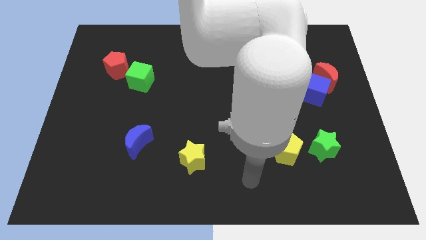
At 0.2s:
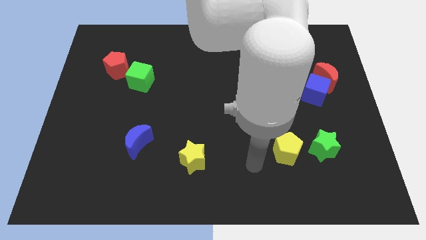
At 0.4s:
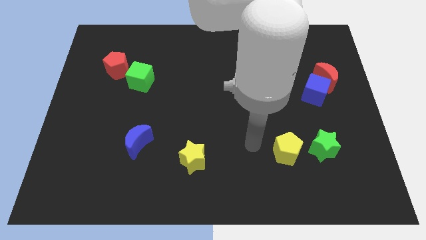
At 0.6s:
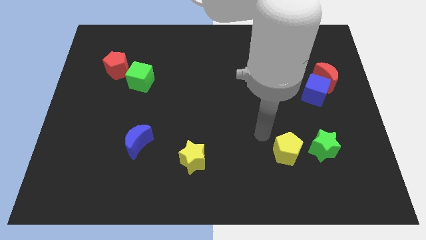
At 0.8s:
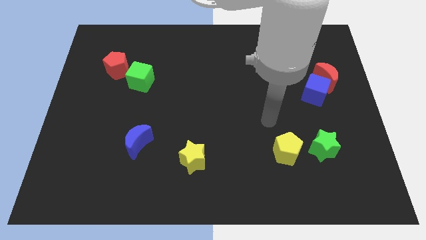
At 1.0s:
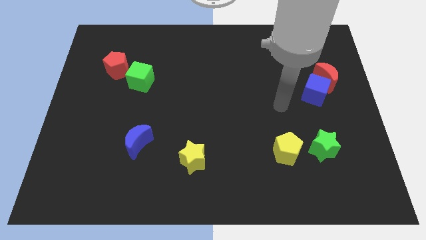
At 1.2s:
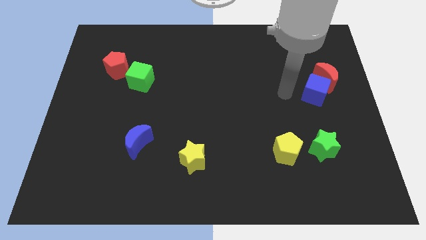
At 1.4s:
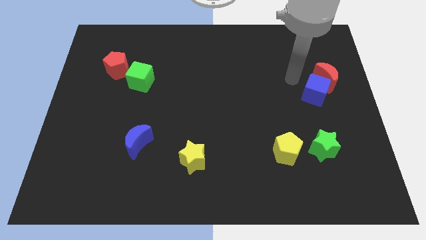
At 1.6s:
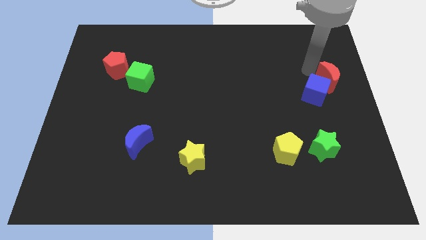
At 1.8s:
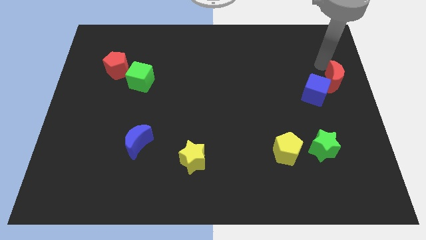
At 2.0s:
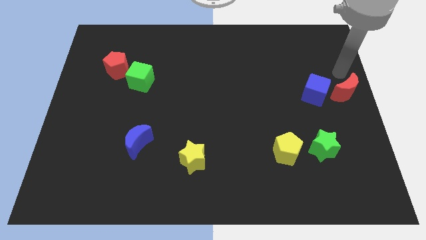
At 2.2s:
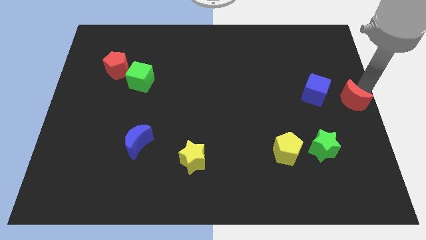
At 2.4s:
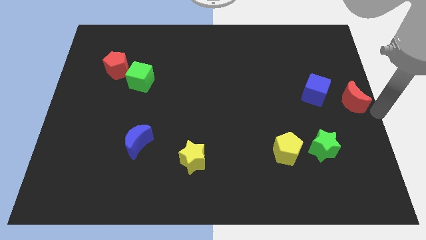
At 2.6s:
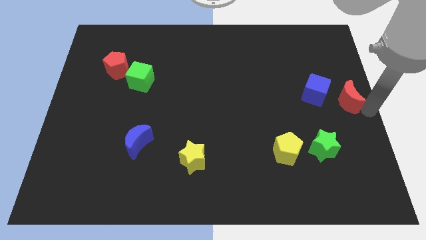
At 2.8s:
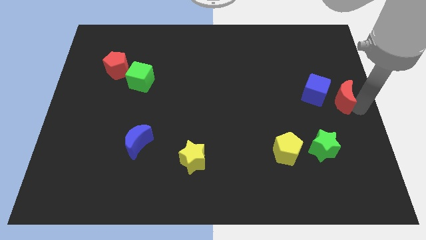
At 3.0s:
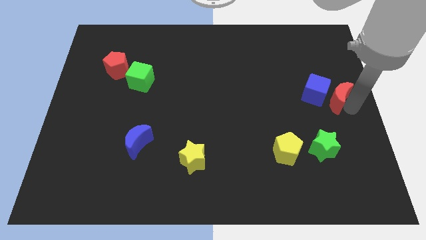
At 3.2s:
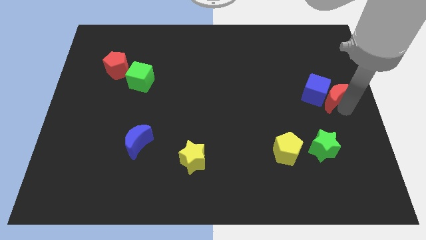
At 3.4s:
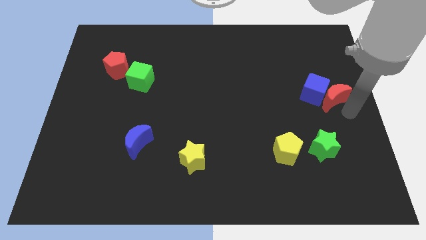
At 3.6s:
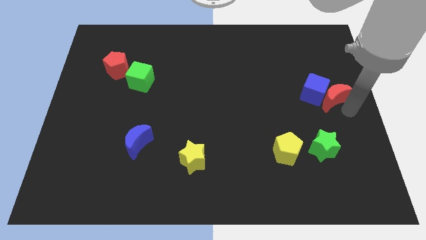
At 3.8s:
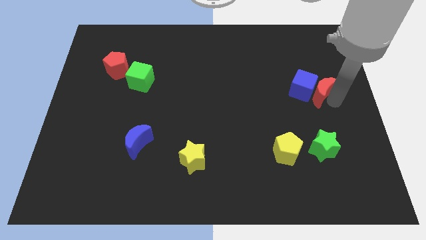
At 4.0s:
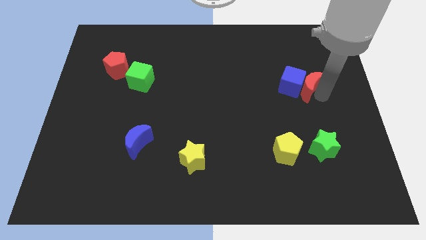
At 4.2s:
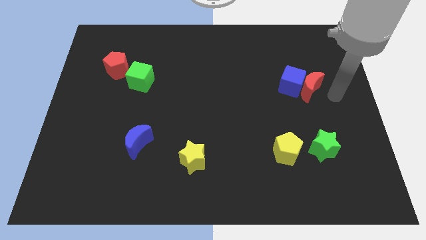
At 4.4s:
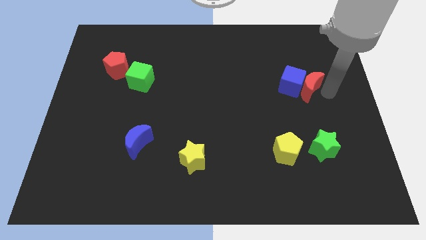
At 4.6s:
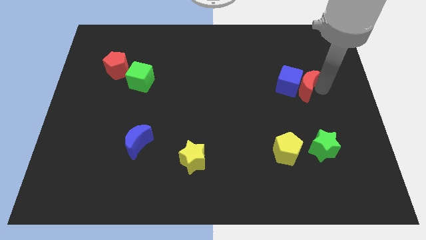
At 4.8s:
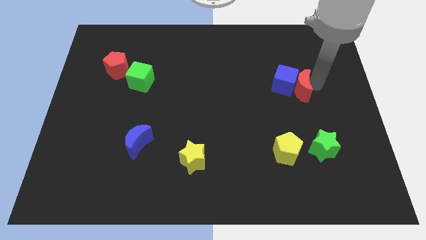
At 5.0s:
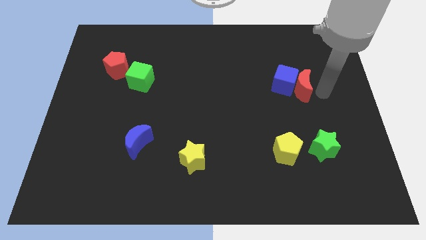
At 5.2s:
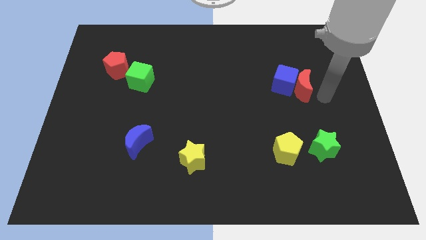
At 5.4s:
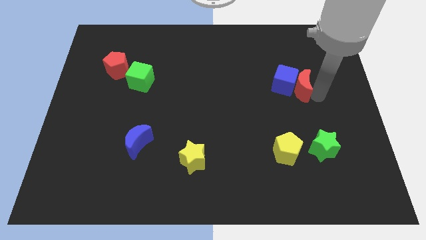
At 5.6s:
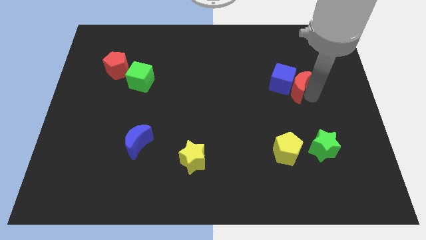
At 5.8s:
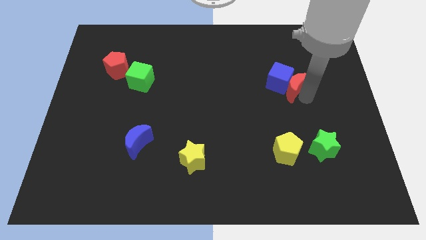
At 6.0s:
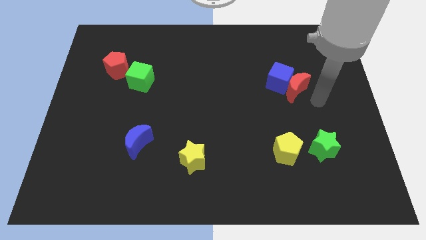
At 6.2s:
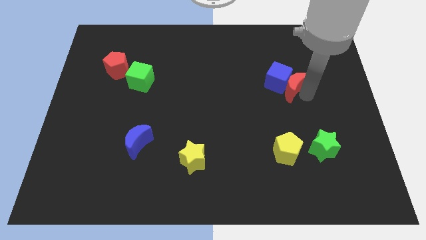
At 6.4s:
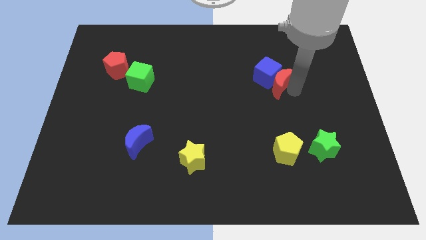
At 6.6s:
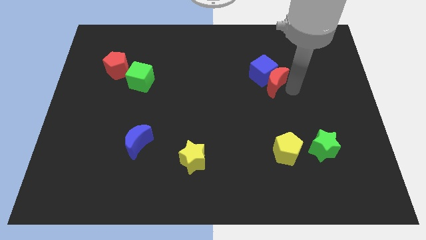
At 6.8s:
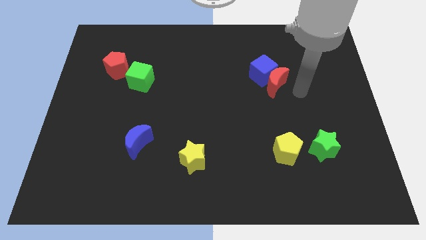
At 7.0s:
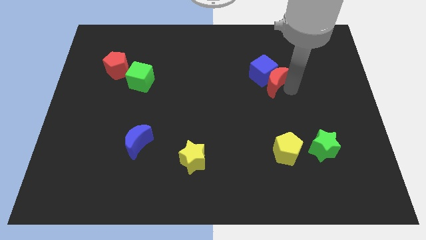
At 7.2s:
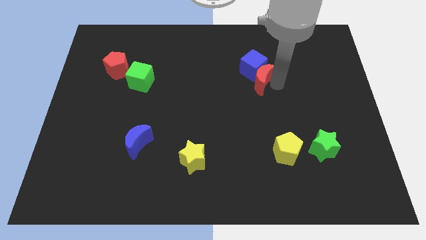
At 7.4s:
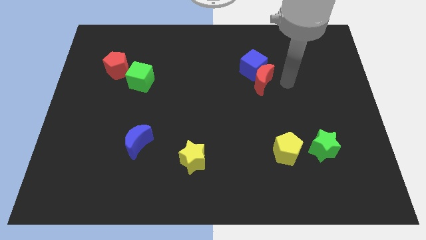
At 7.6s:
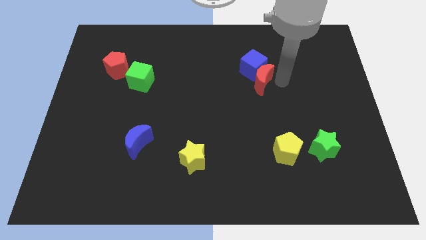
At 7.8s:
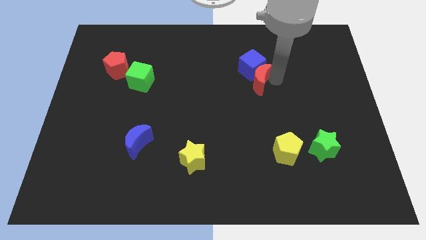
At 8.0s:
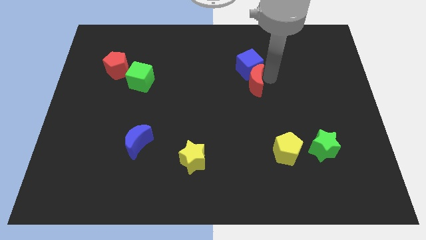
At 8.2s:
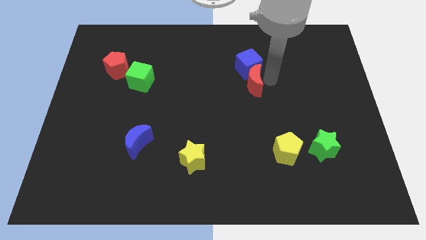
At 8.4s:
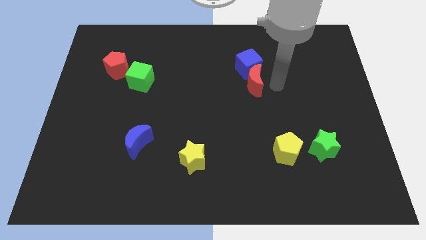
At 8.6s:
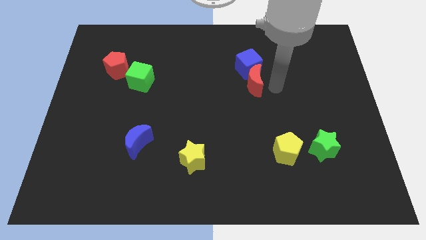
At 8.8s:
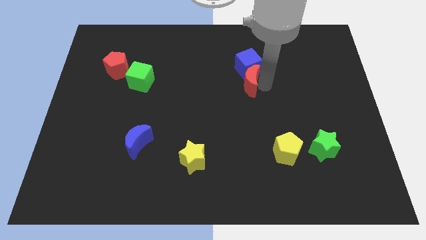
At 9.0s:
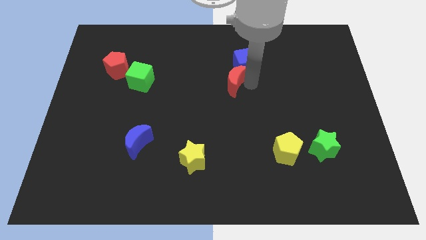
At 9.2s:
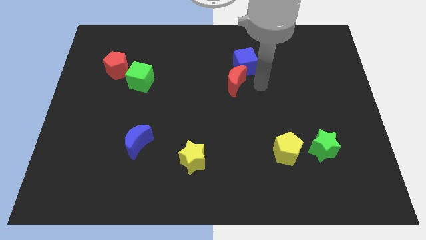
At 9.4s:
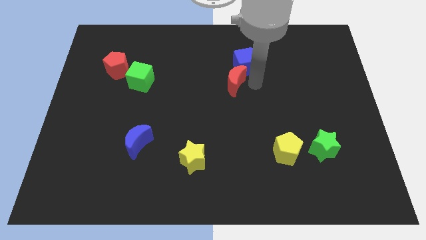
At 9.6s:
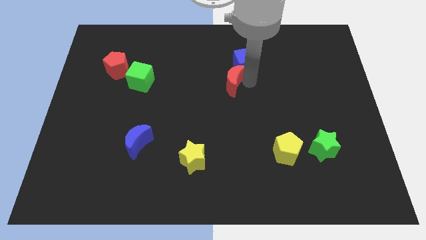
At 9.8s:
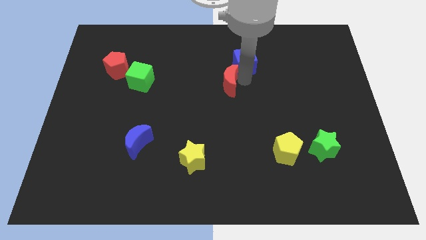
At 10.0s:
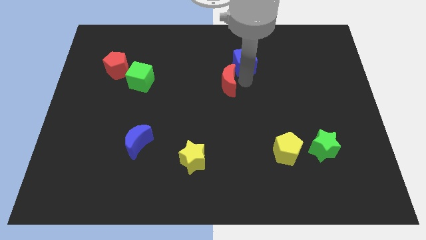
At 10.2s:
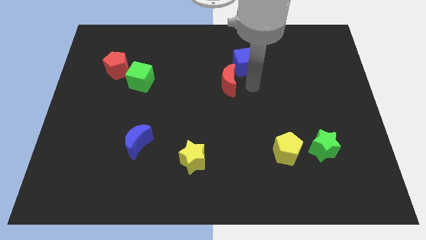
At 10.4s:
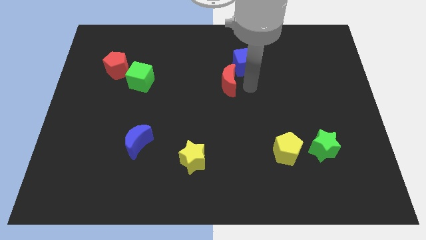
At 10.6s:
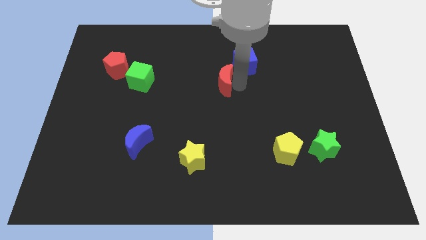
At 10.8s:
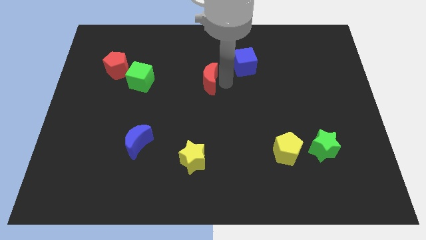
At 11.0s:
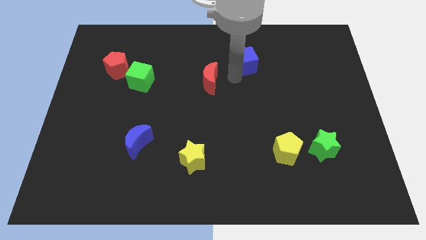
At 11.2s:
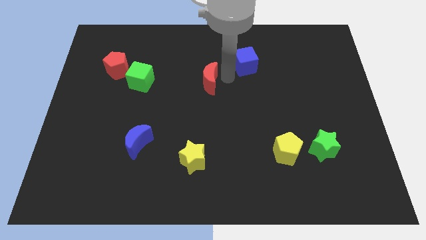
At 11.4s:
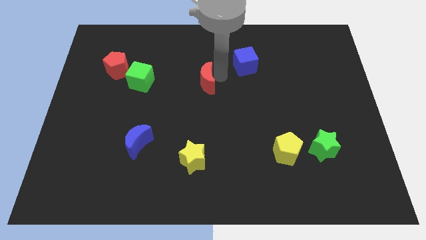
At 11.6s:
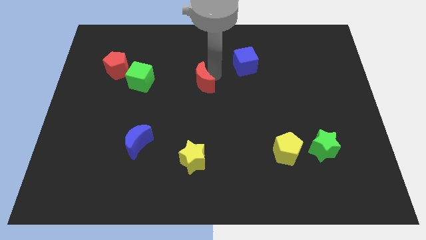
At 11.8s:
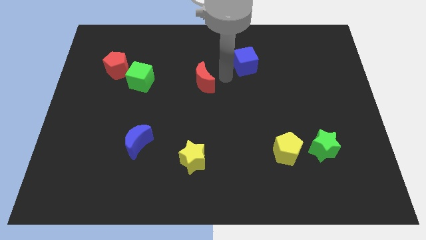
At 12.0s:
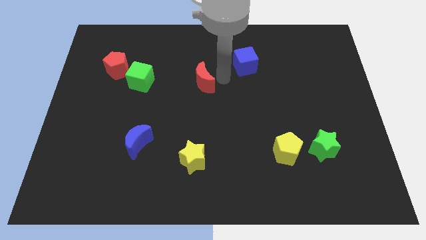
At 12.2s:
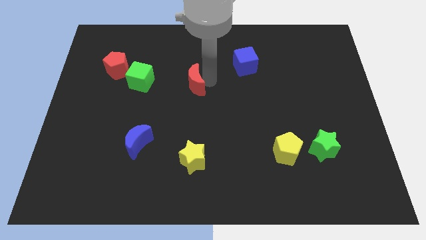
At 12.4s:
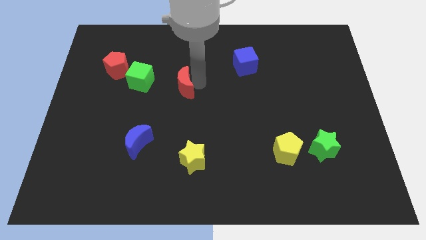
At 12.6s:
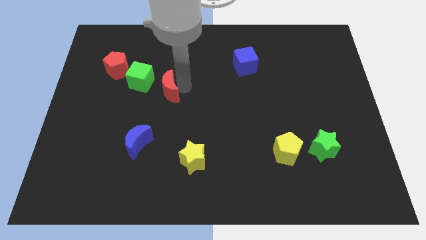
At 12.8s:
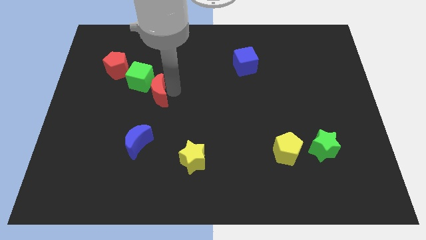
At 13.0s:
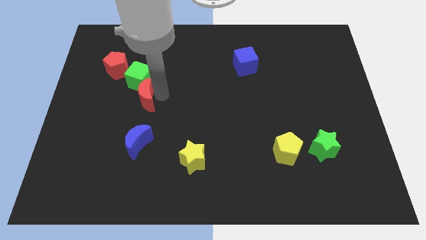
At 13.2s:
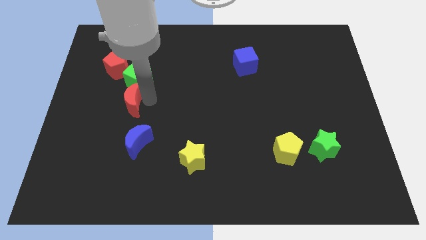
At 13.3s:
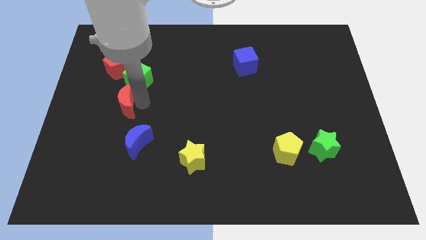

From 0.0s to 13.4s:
put the red moon below the red pentagon

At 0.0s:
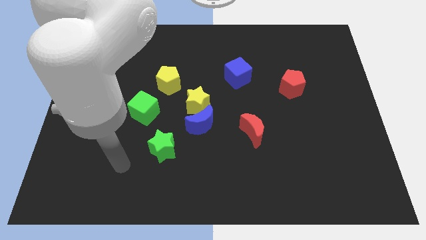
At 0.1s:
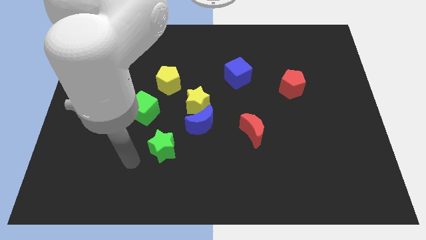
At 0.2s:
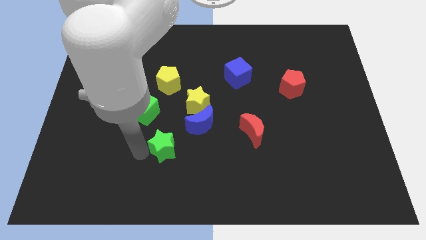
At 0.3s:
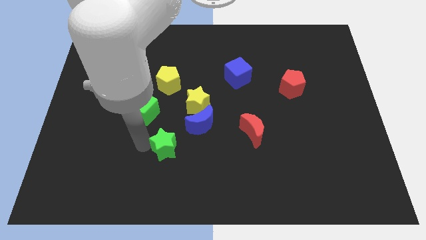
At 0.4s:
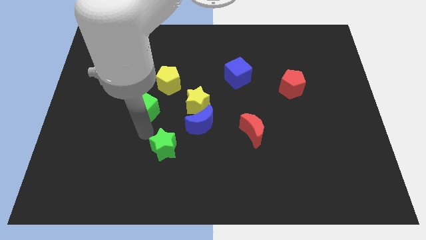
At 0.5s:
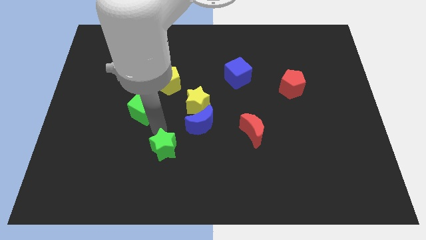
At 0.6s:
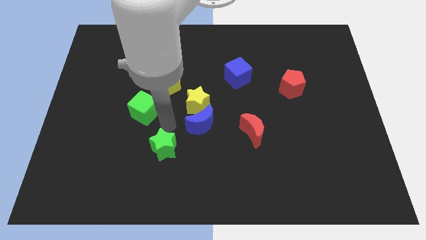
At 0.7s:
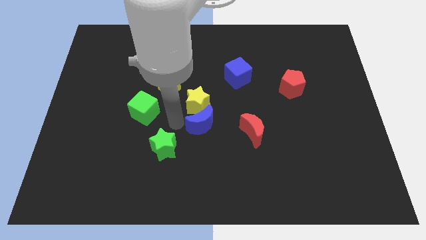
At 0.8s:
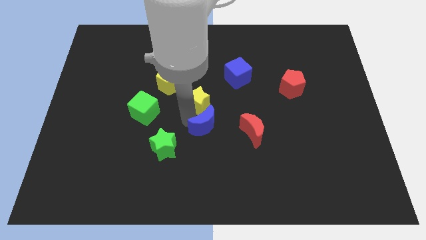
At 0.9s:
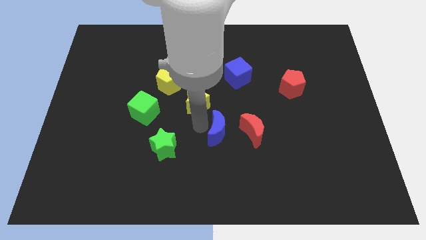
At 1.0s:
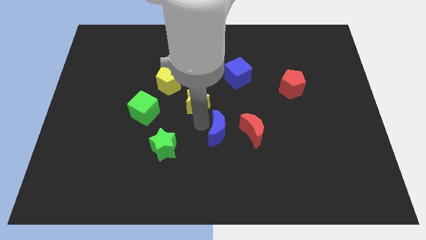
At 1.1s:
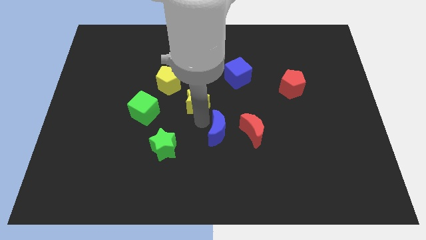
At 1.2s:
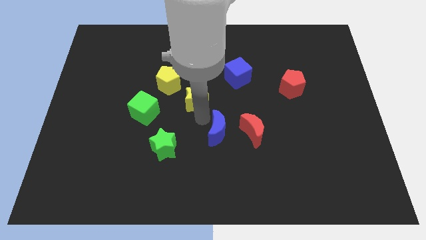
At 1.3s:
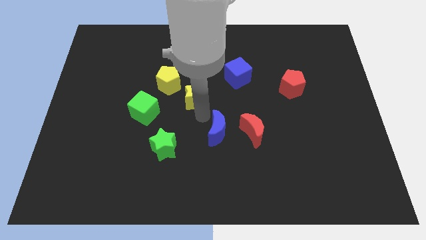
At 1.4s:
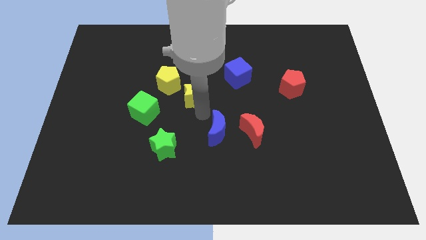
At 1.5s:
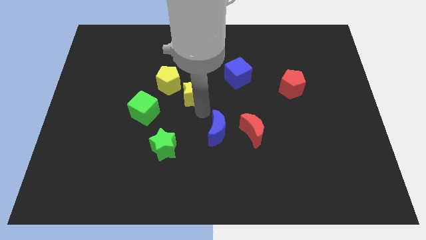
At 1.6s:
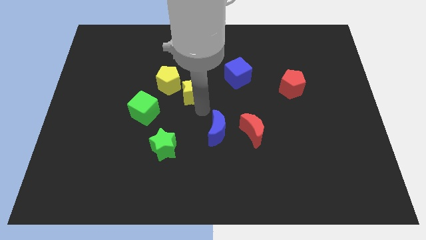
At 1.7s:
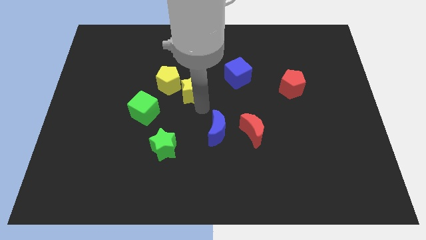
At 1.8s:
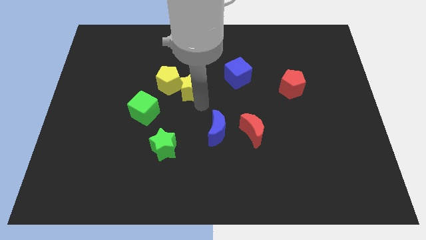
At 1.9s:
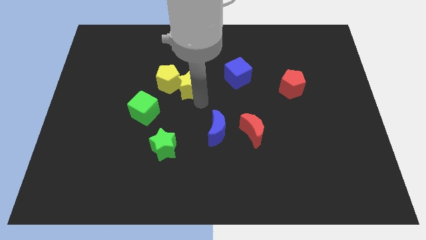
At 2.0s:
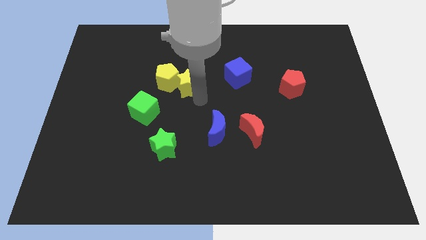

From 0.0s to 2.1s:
push the yellow star to the top right of the yellow pentagon
